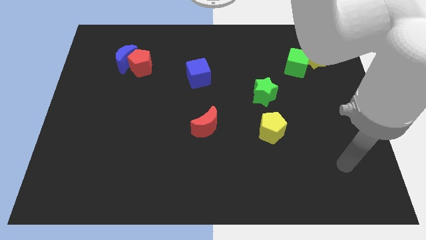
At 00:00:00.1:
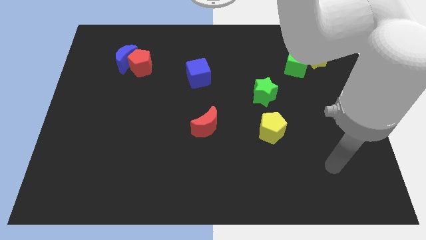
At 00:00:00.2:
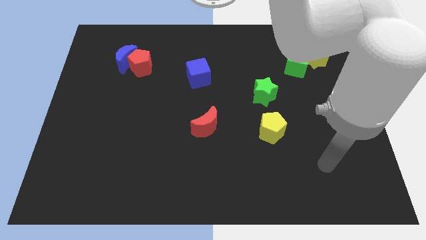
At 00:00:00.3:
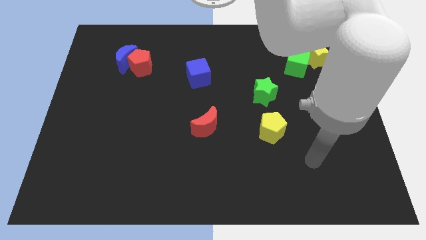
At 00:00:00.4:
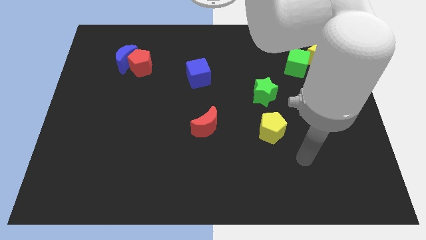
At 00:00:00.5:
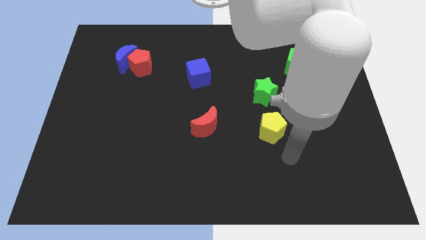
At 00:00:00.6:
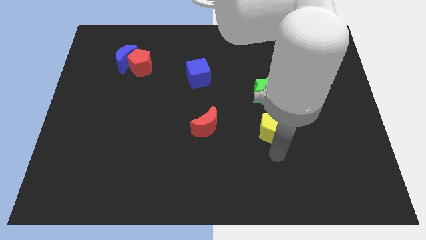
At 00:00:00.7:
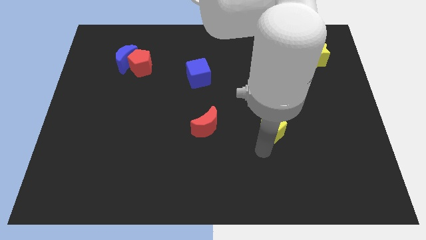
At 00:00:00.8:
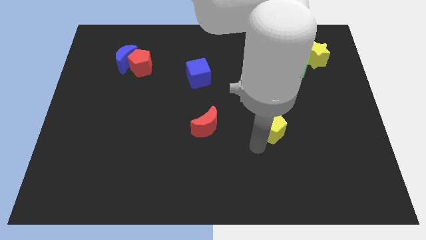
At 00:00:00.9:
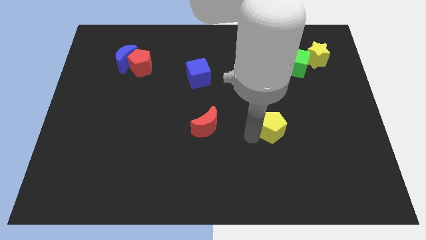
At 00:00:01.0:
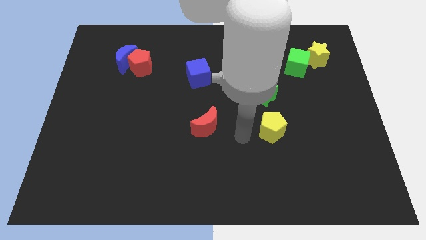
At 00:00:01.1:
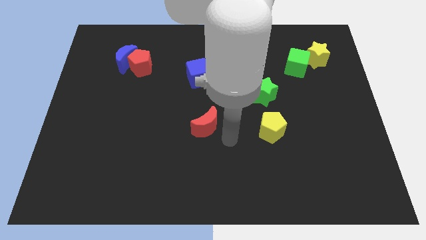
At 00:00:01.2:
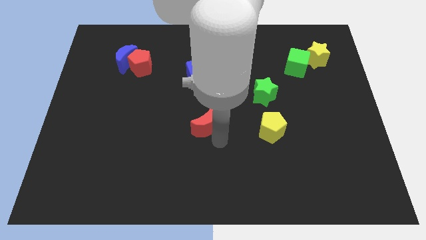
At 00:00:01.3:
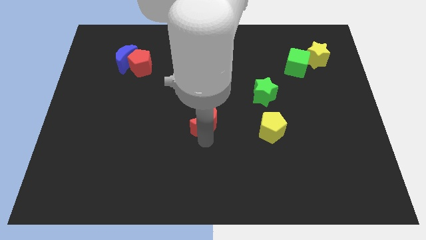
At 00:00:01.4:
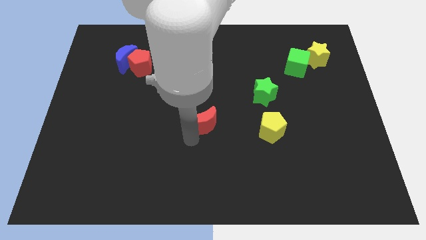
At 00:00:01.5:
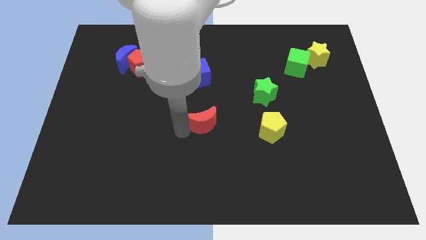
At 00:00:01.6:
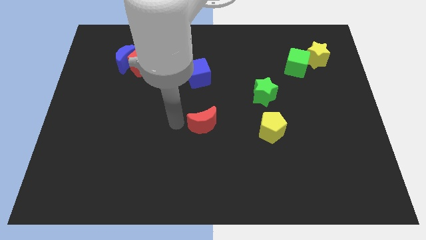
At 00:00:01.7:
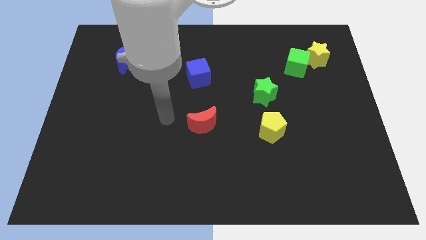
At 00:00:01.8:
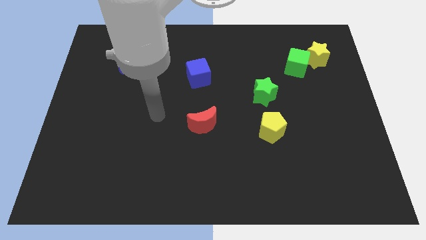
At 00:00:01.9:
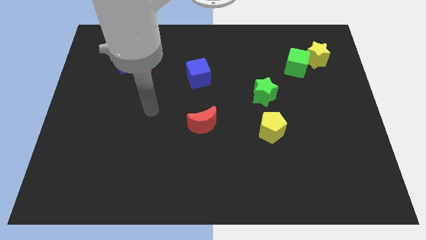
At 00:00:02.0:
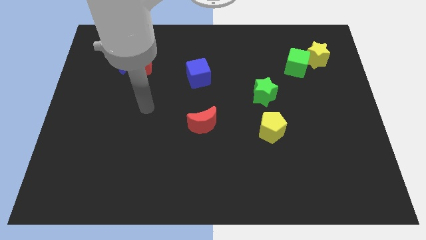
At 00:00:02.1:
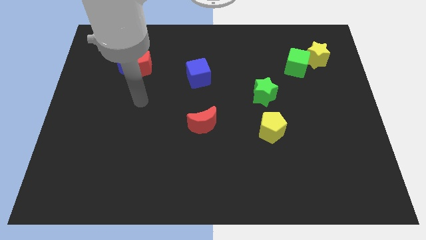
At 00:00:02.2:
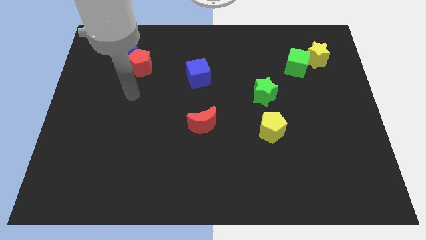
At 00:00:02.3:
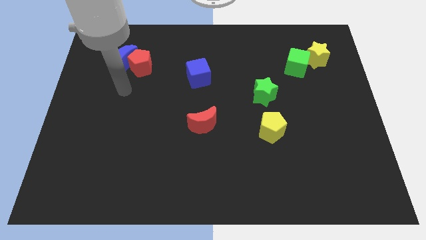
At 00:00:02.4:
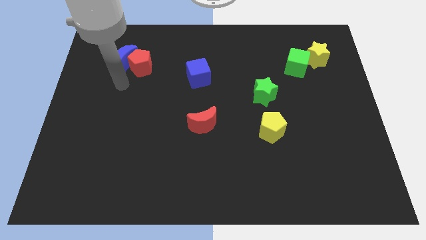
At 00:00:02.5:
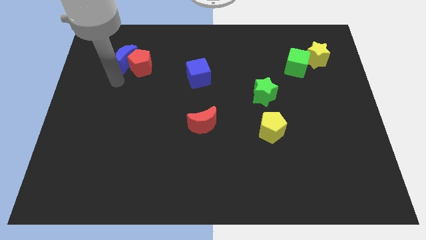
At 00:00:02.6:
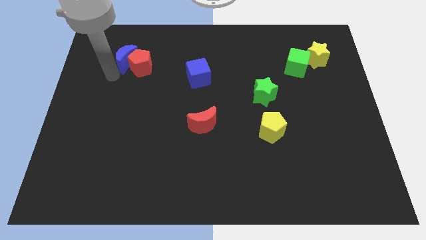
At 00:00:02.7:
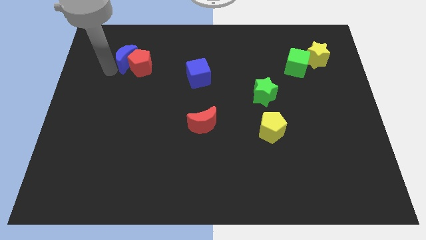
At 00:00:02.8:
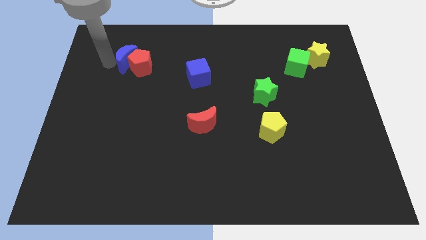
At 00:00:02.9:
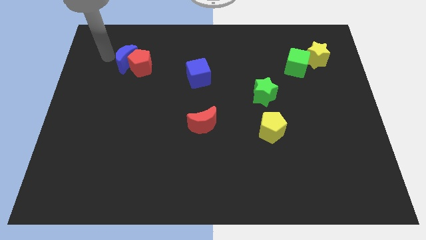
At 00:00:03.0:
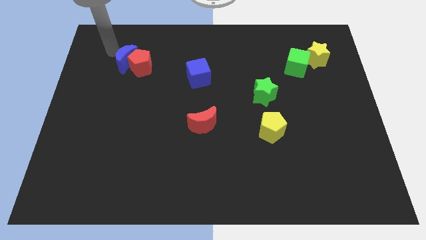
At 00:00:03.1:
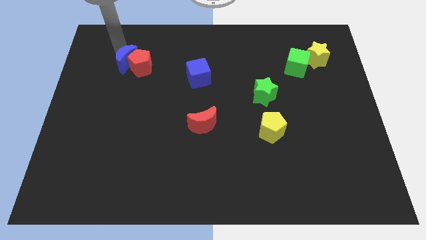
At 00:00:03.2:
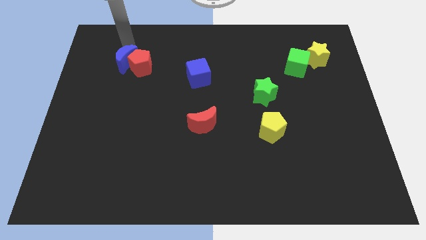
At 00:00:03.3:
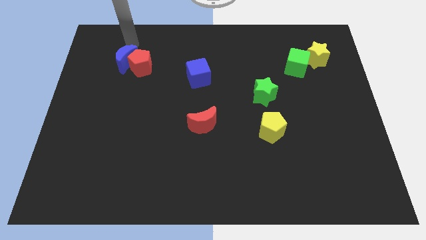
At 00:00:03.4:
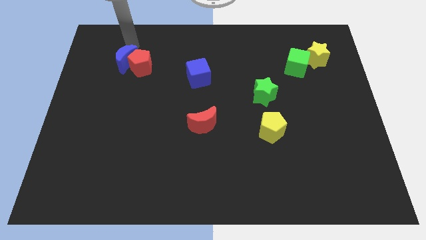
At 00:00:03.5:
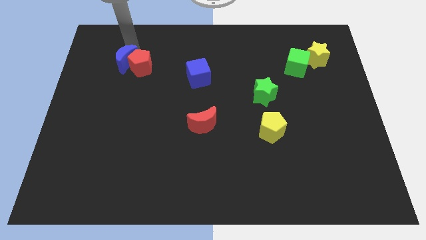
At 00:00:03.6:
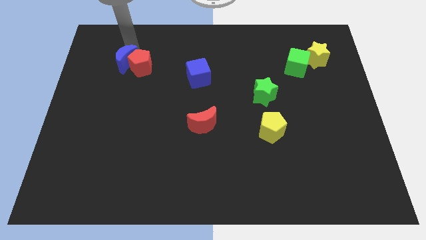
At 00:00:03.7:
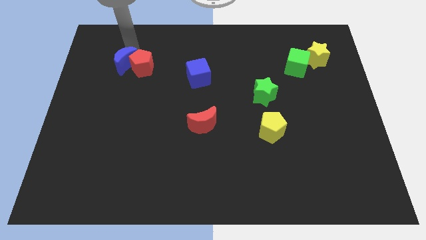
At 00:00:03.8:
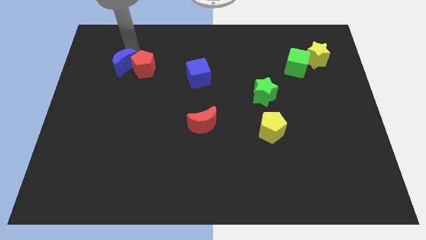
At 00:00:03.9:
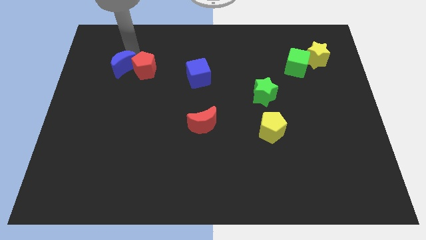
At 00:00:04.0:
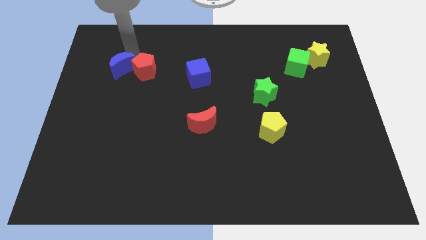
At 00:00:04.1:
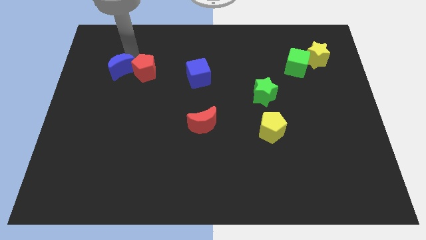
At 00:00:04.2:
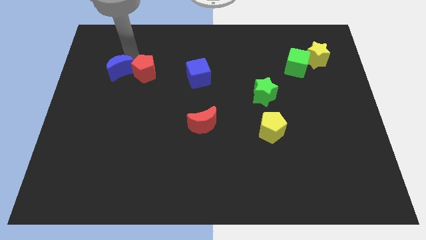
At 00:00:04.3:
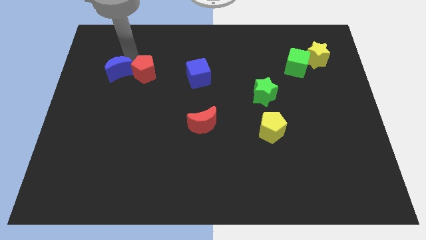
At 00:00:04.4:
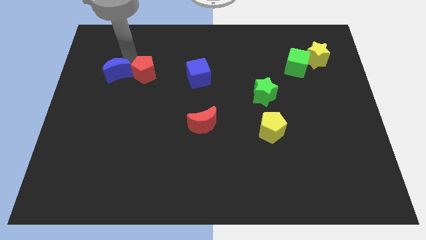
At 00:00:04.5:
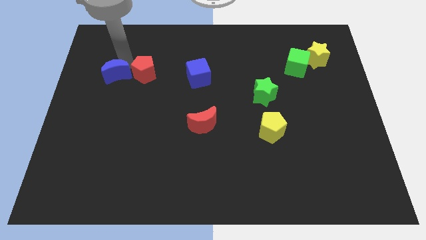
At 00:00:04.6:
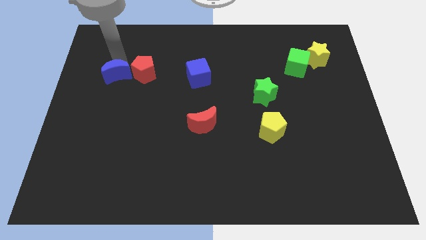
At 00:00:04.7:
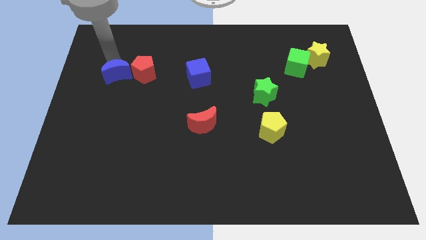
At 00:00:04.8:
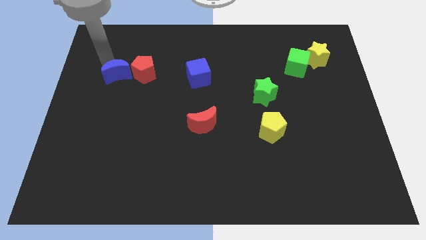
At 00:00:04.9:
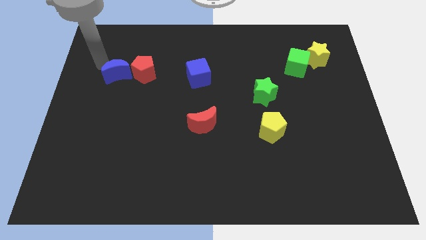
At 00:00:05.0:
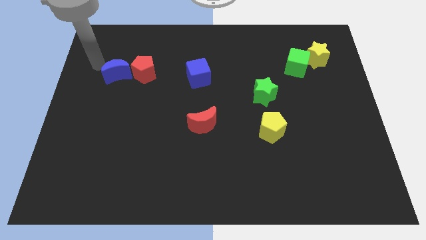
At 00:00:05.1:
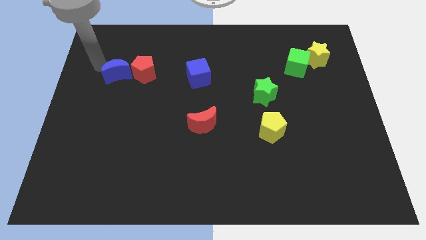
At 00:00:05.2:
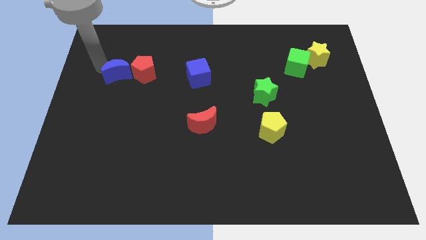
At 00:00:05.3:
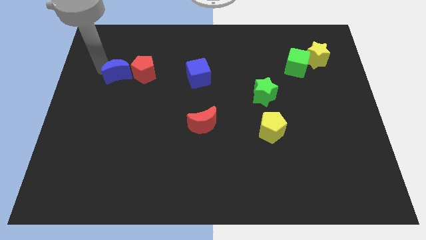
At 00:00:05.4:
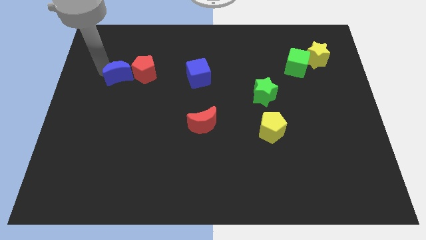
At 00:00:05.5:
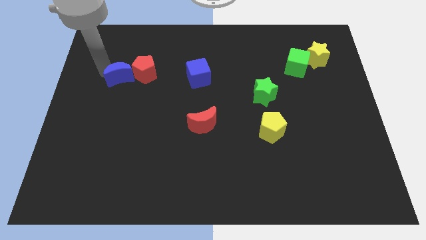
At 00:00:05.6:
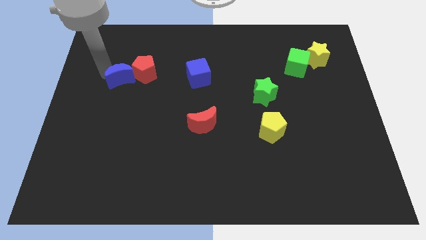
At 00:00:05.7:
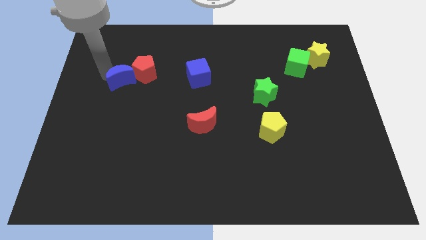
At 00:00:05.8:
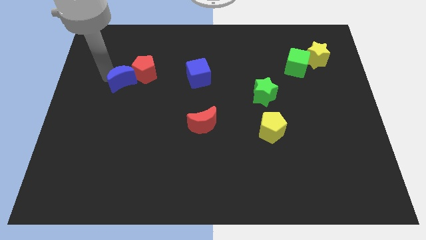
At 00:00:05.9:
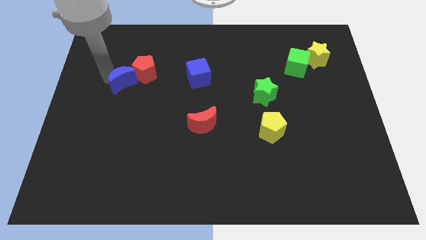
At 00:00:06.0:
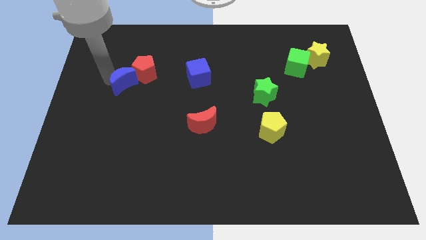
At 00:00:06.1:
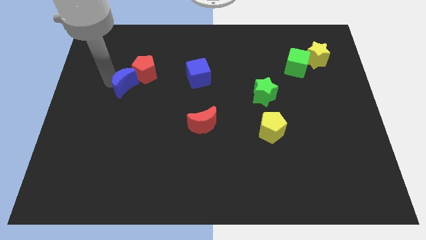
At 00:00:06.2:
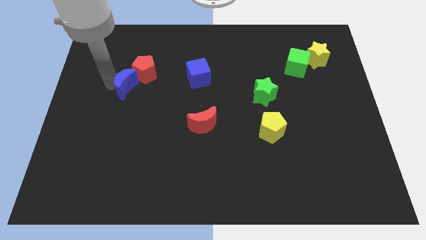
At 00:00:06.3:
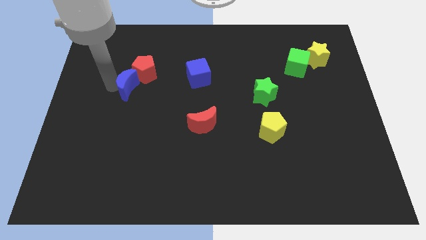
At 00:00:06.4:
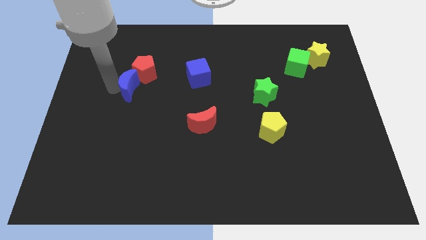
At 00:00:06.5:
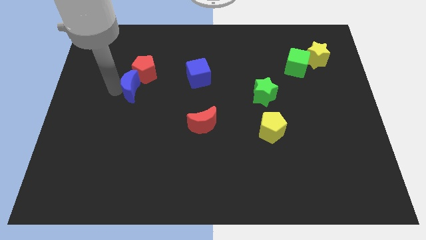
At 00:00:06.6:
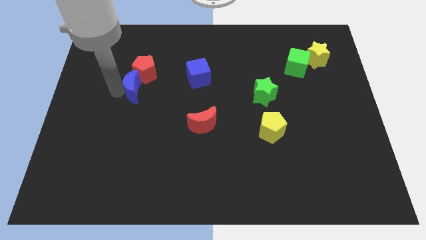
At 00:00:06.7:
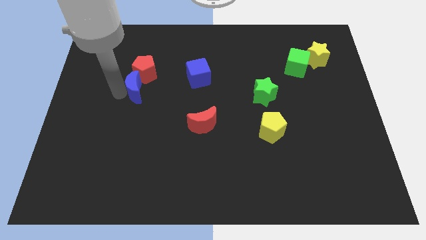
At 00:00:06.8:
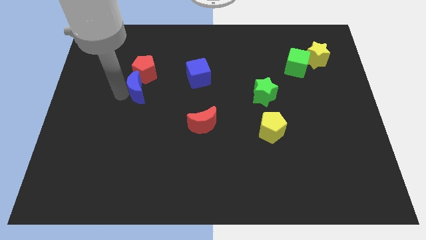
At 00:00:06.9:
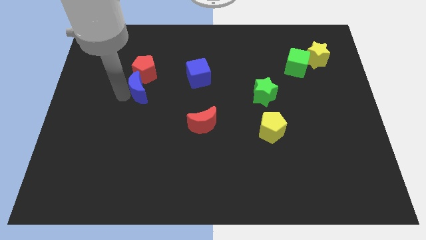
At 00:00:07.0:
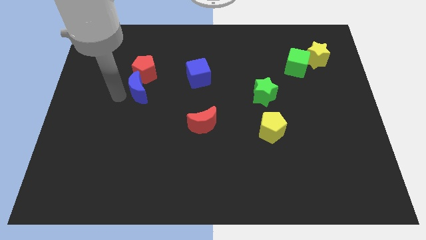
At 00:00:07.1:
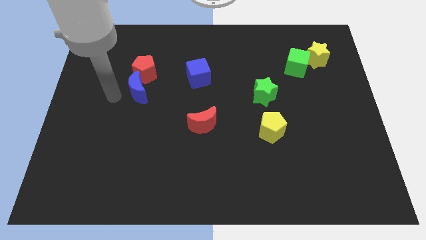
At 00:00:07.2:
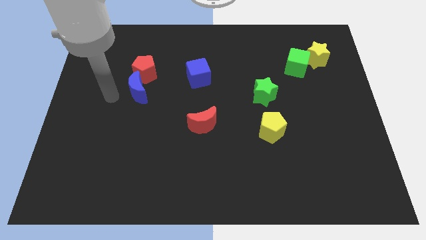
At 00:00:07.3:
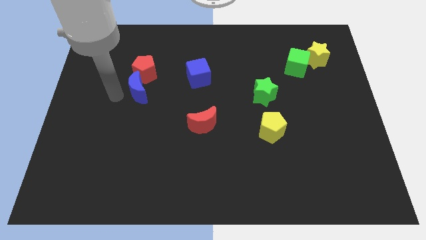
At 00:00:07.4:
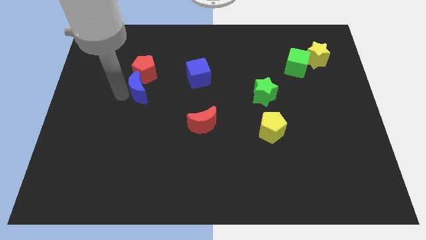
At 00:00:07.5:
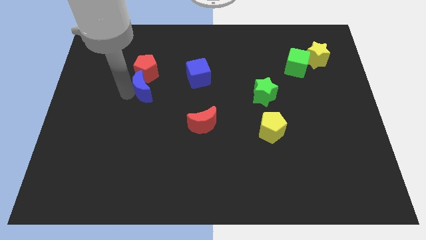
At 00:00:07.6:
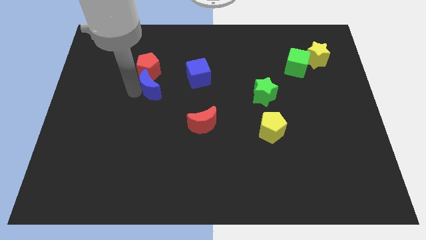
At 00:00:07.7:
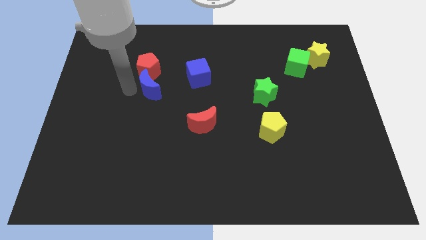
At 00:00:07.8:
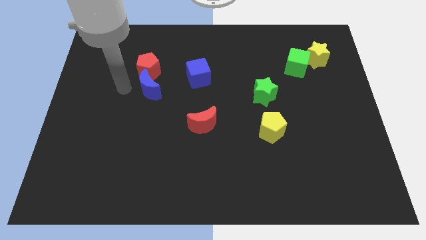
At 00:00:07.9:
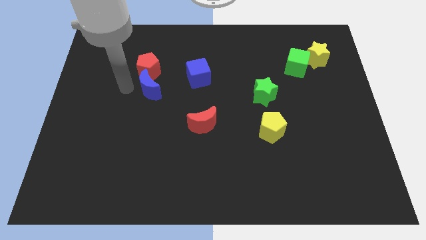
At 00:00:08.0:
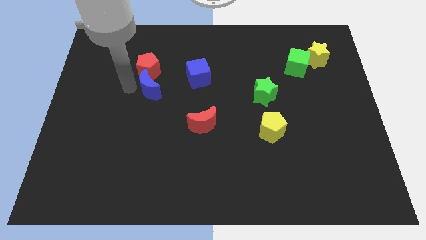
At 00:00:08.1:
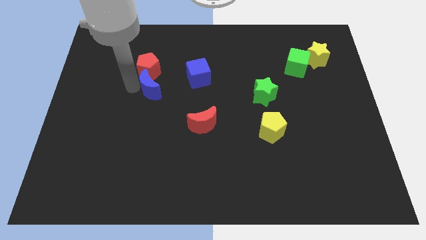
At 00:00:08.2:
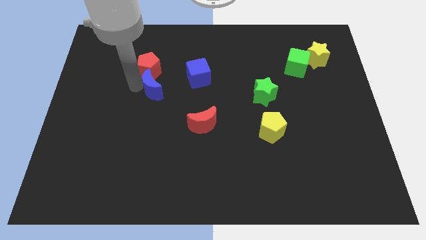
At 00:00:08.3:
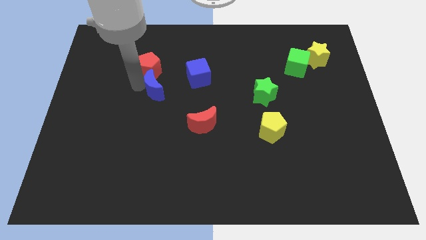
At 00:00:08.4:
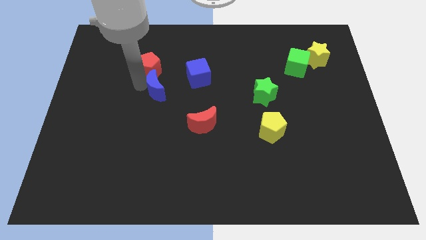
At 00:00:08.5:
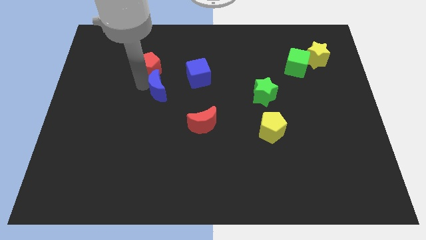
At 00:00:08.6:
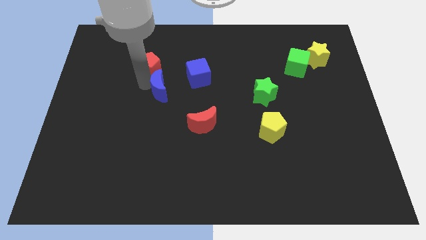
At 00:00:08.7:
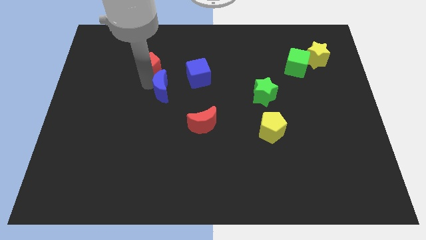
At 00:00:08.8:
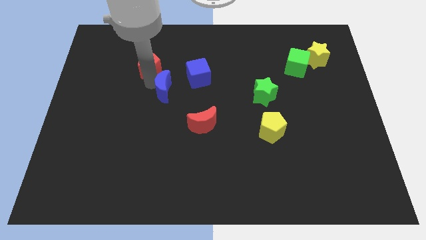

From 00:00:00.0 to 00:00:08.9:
push the blue moon to the center of the board
